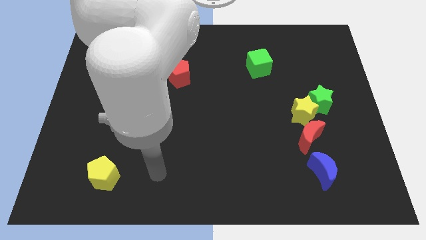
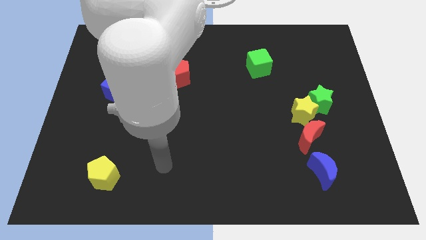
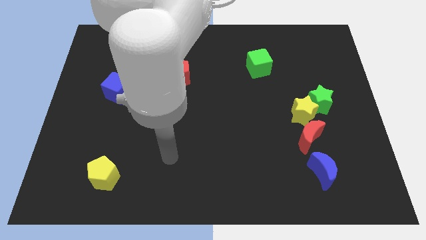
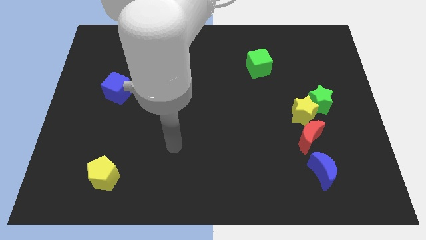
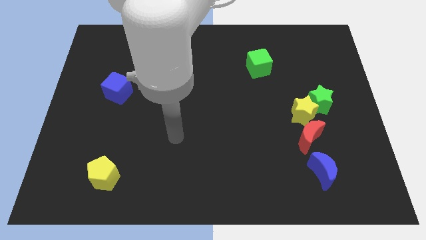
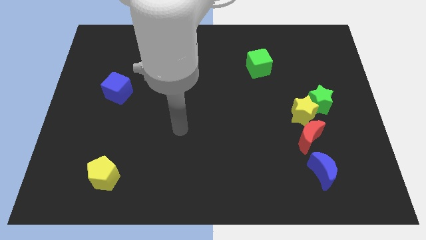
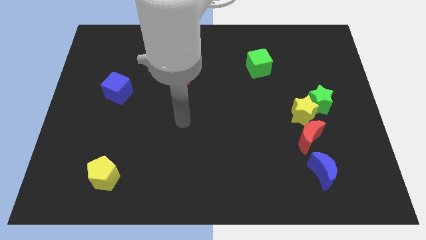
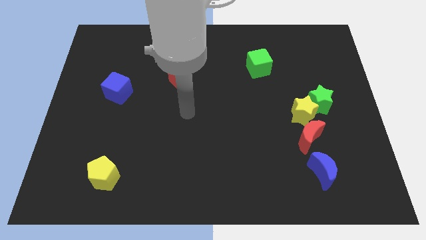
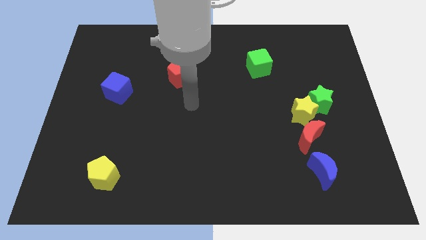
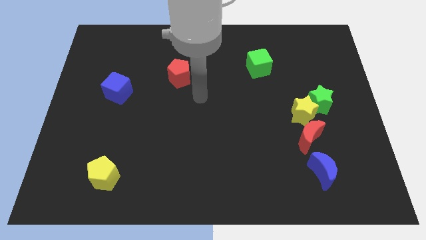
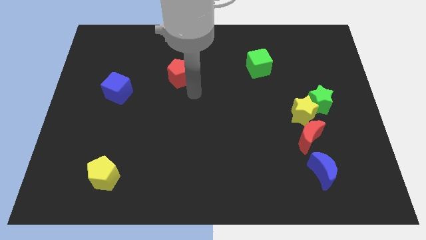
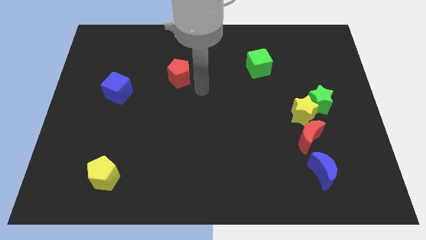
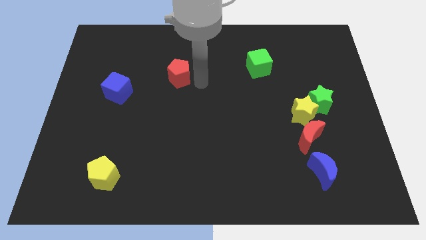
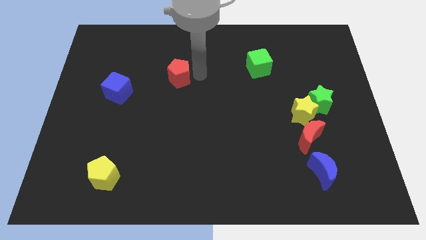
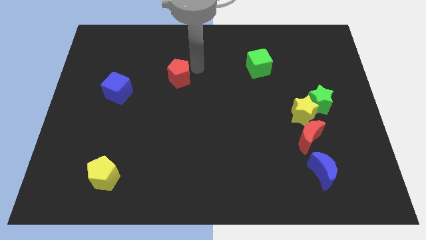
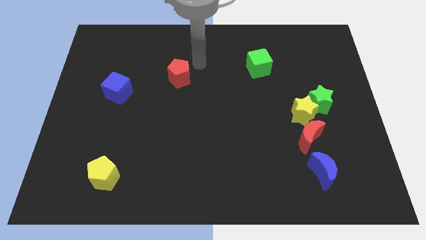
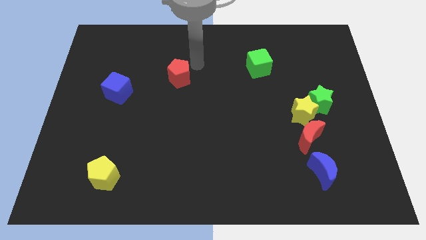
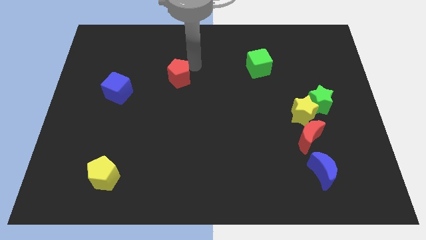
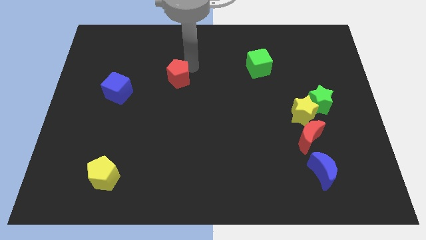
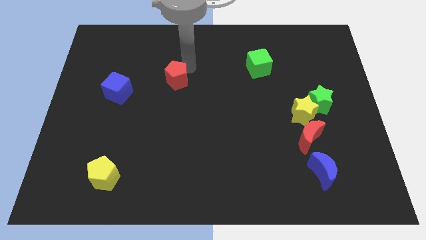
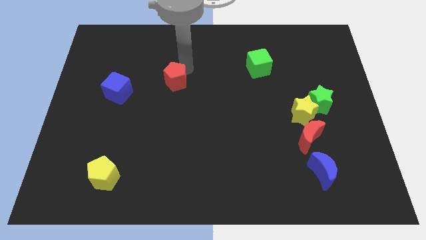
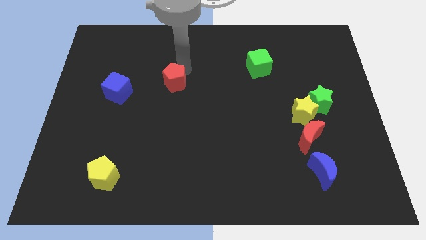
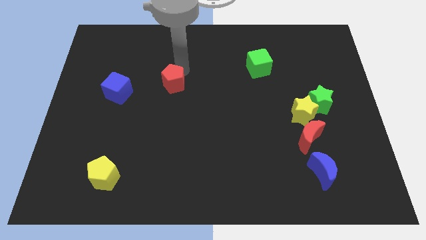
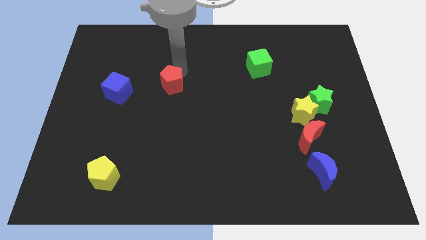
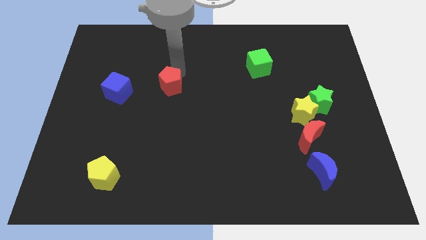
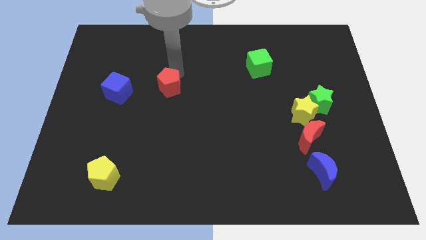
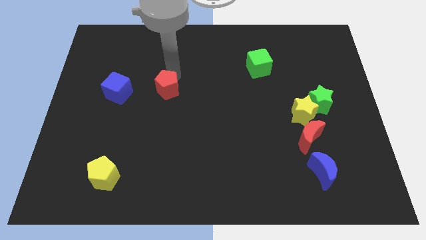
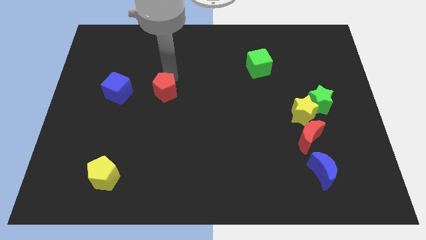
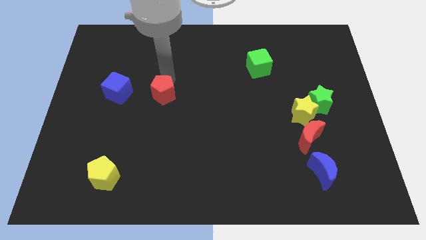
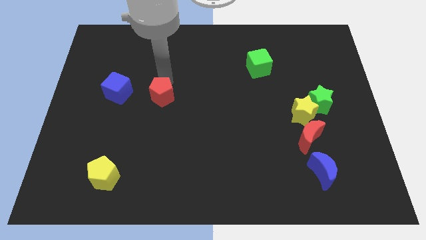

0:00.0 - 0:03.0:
slightly slide the red pentagon diagonally downwards and to the left

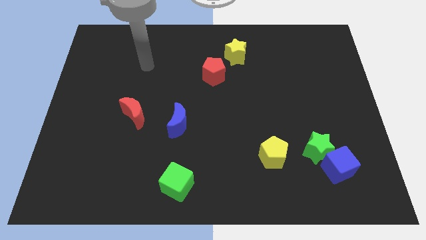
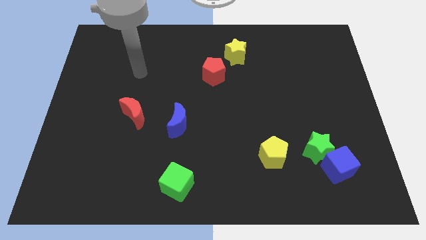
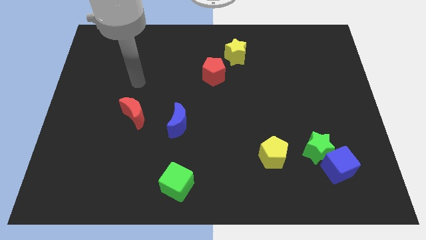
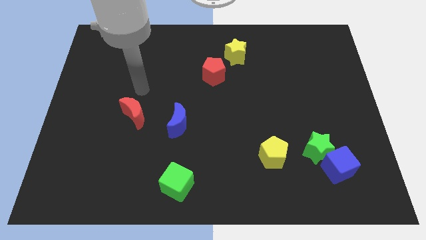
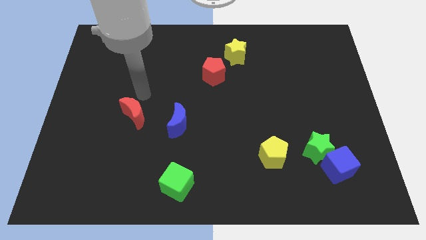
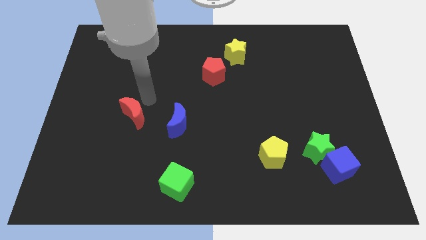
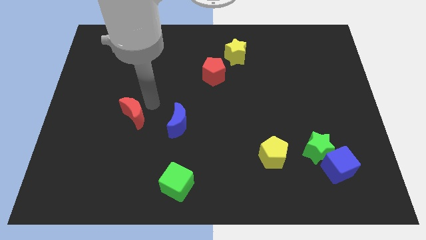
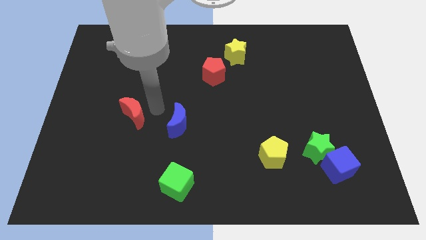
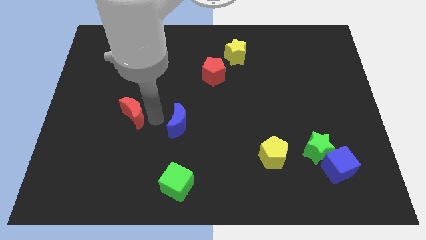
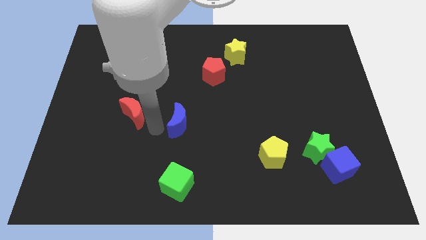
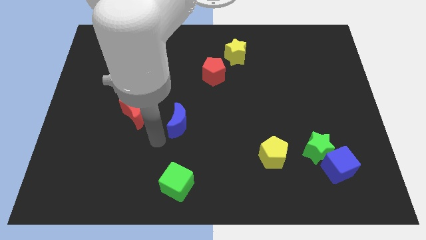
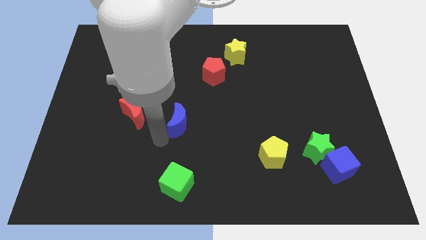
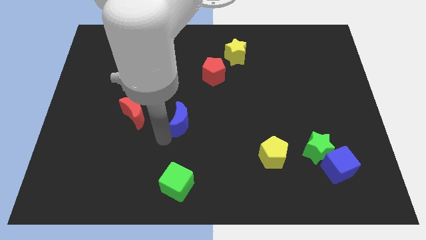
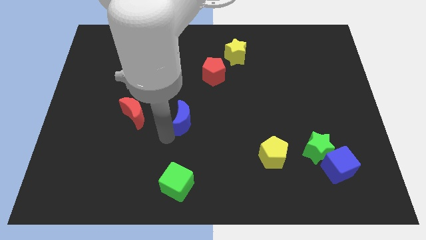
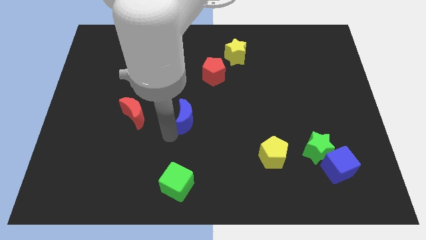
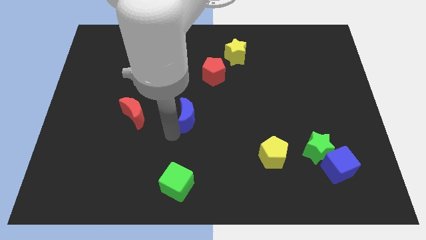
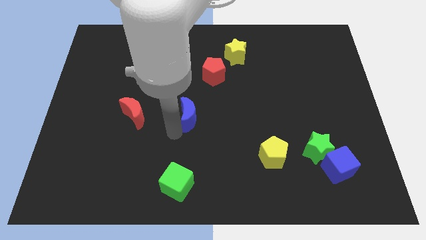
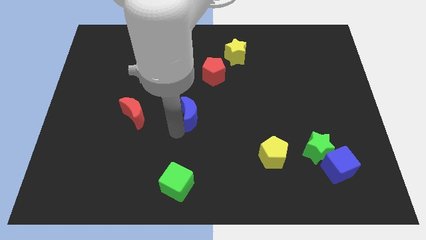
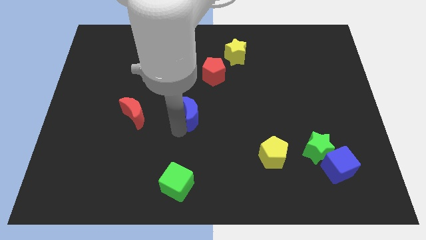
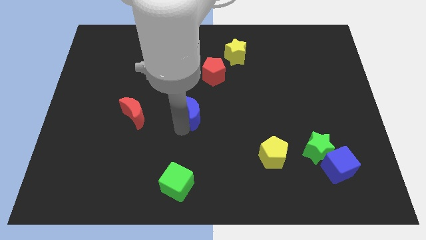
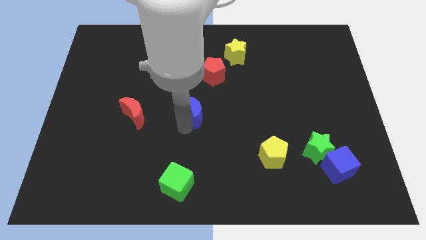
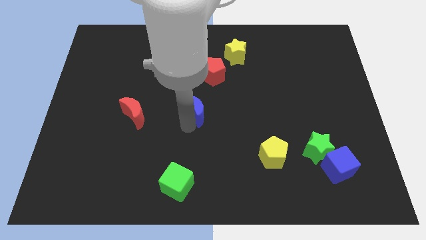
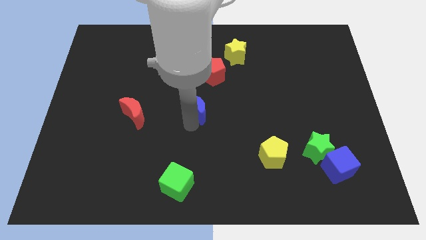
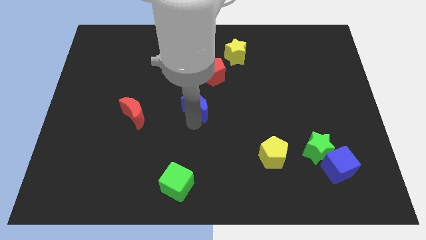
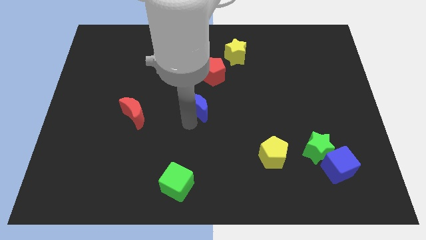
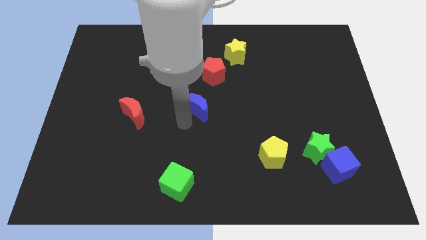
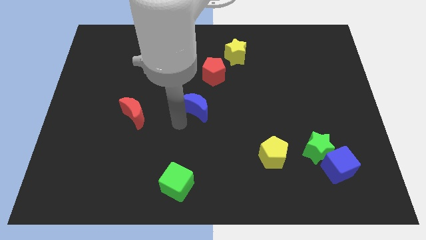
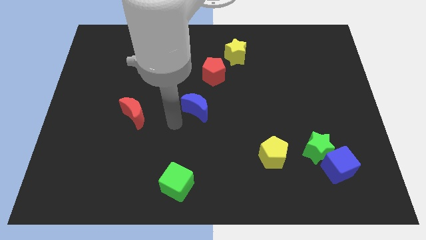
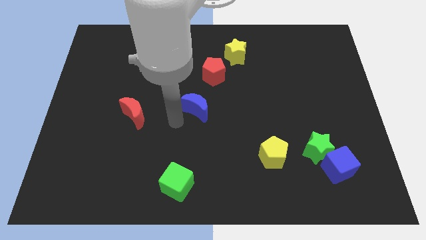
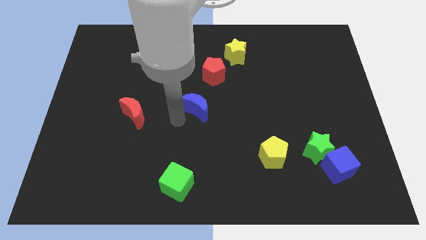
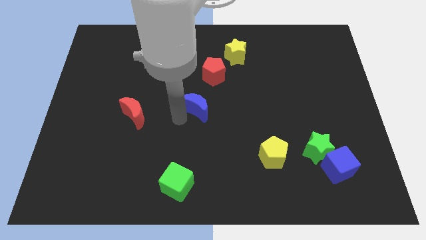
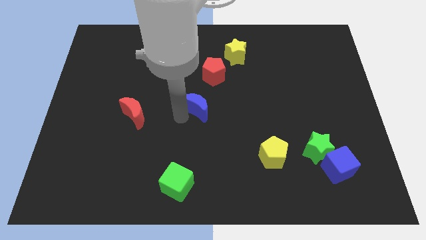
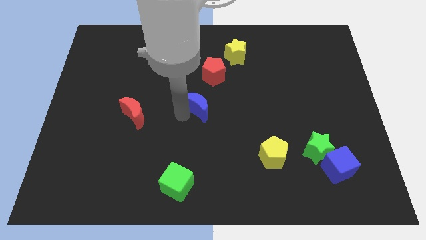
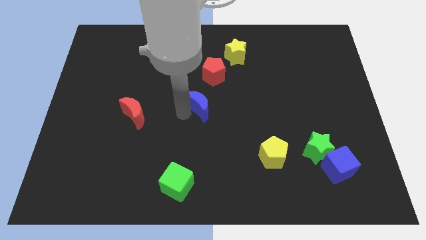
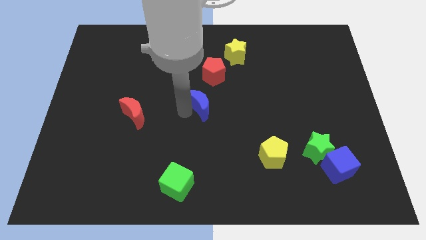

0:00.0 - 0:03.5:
slide the blue moon diagonally upwards and to the right somewhat

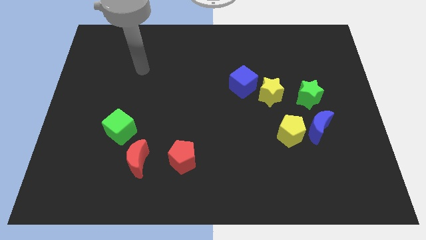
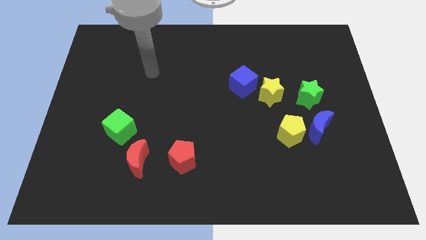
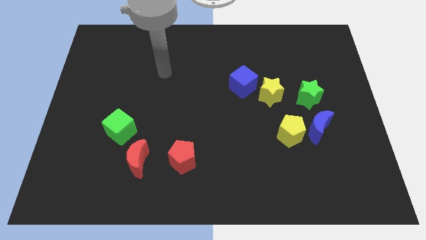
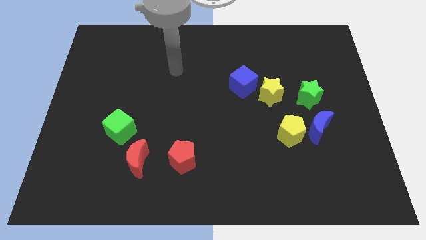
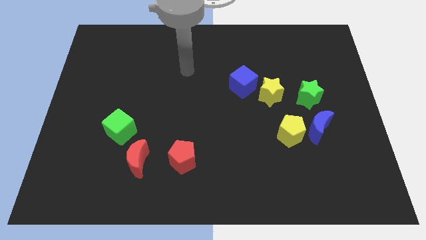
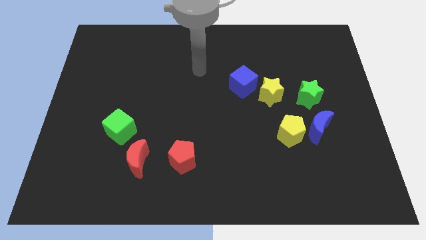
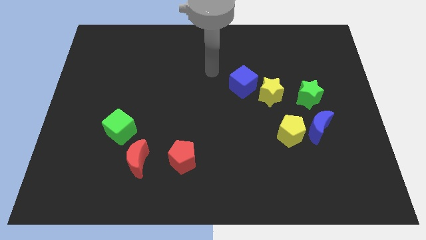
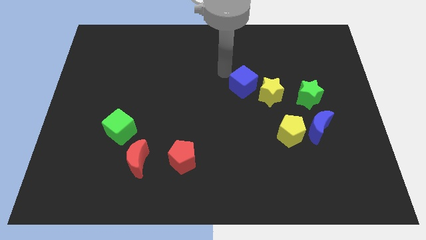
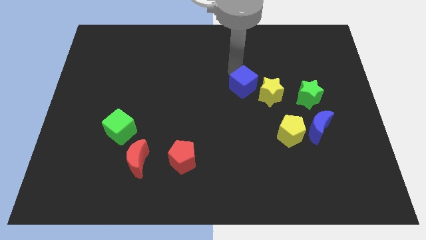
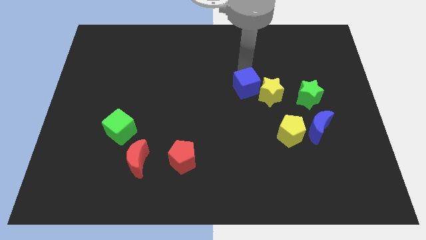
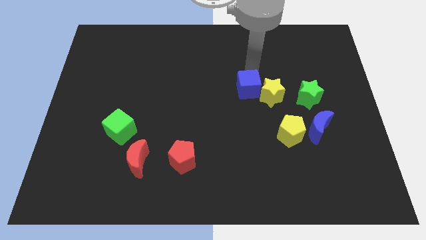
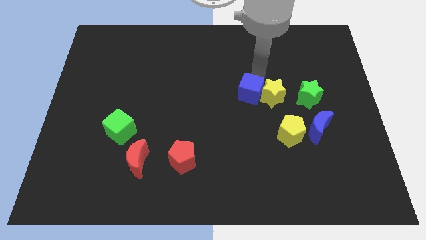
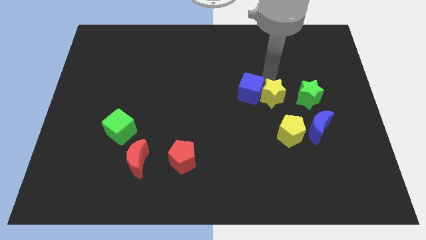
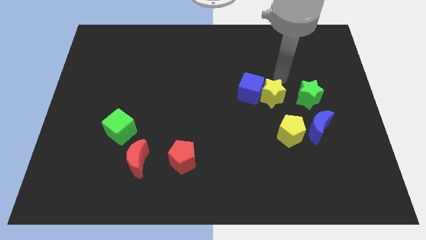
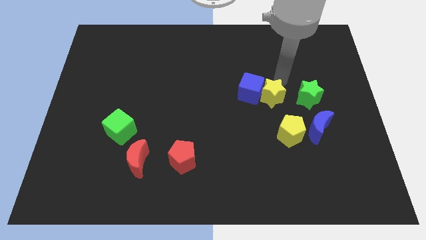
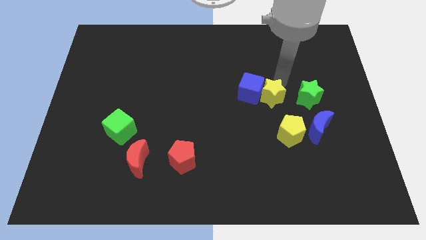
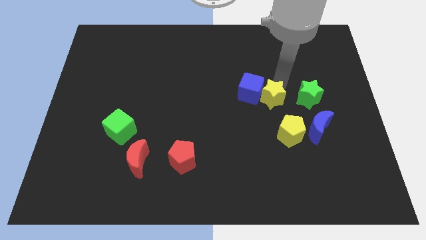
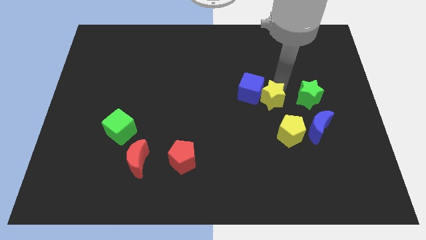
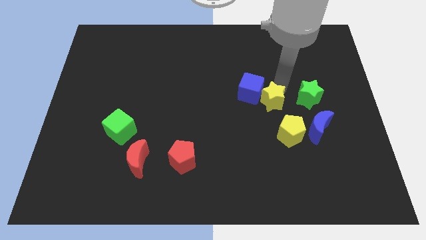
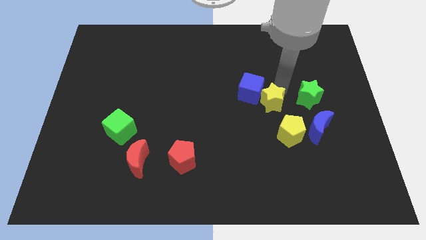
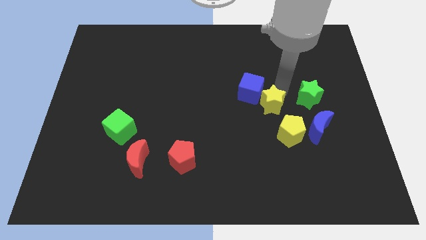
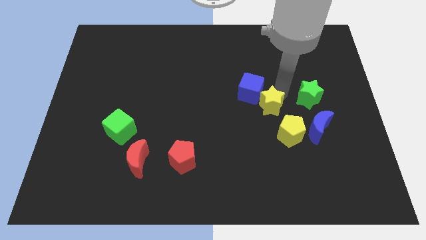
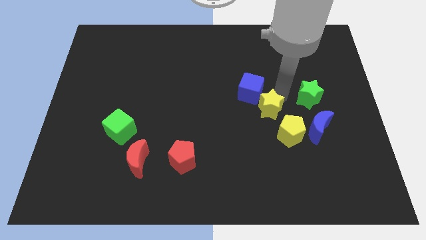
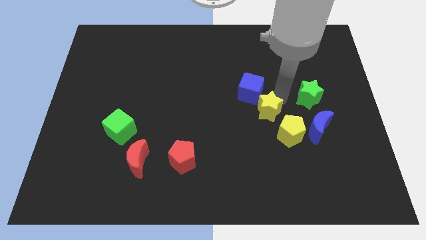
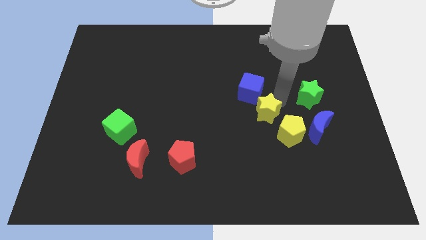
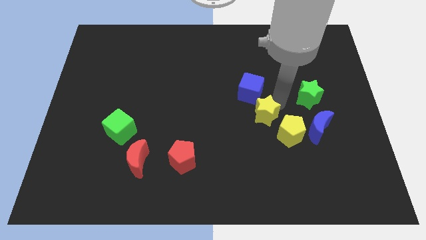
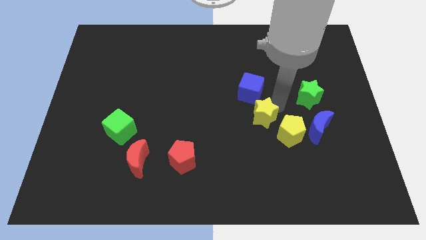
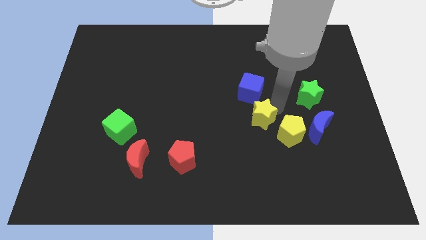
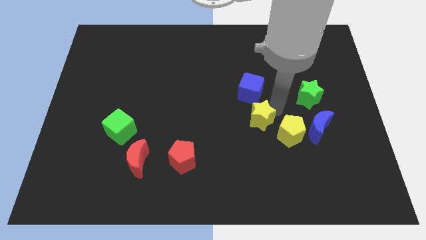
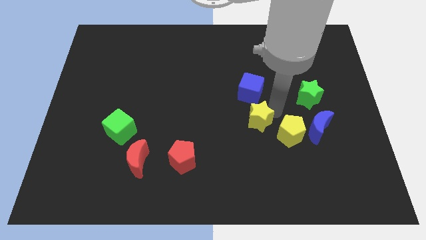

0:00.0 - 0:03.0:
push the yellow star a little down and left
